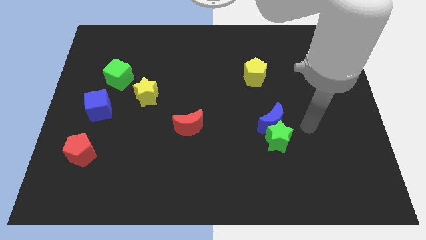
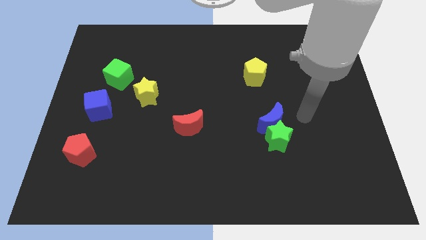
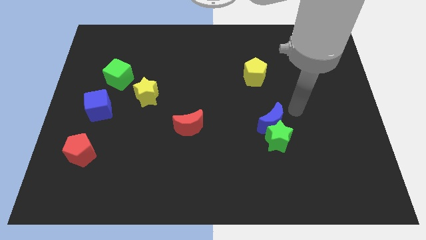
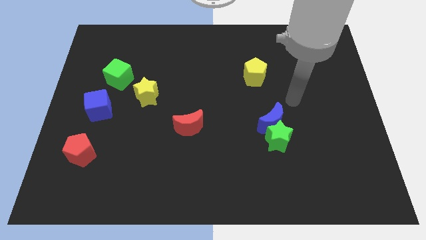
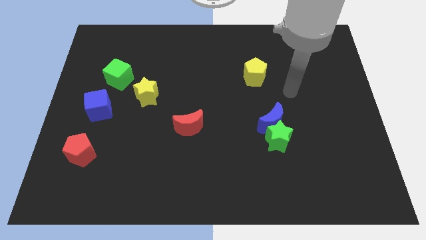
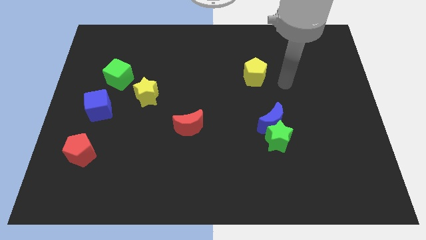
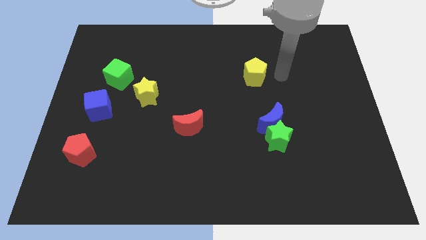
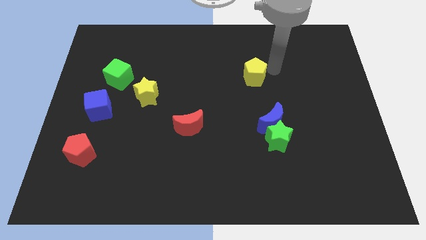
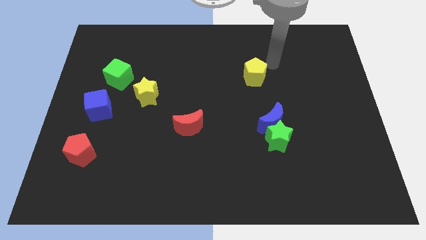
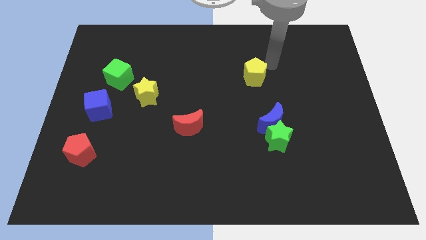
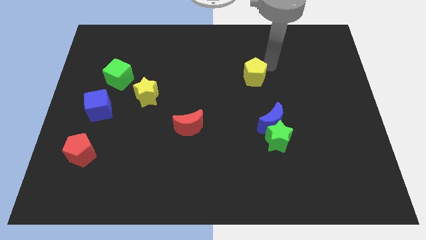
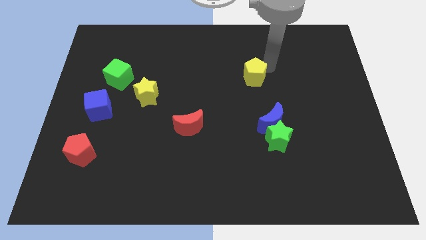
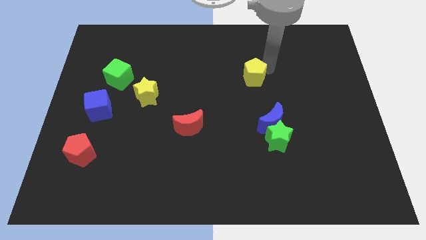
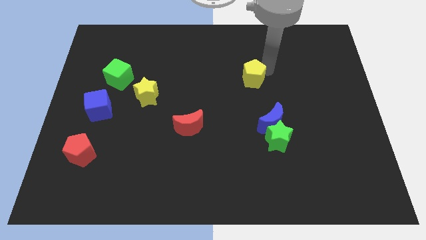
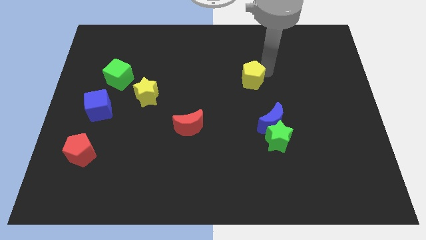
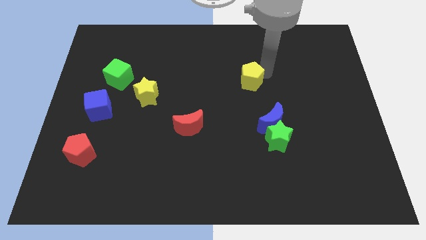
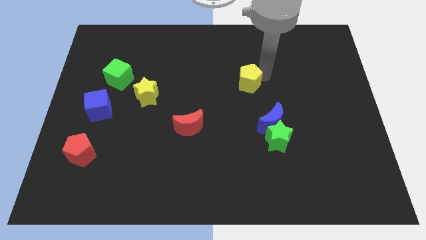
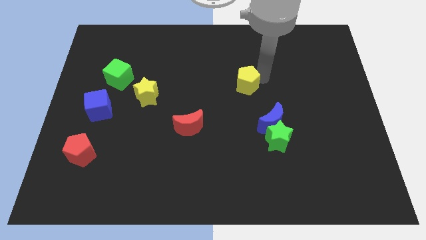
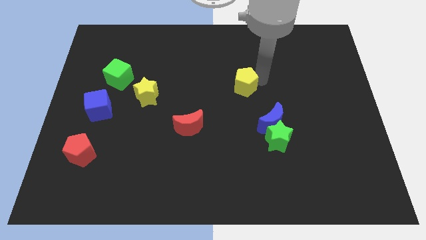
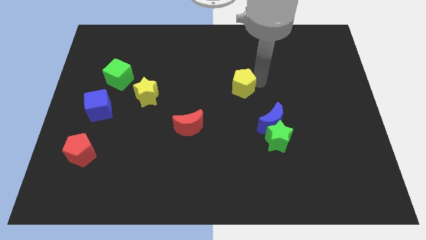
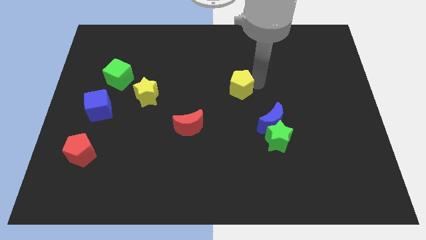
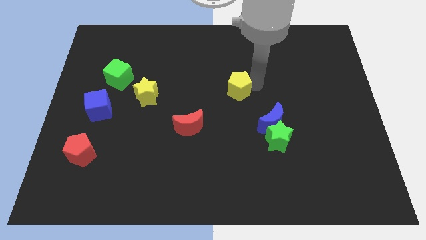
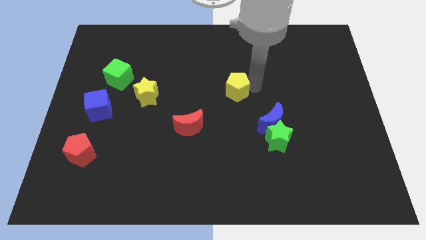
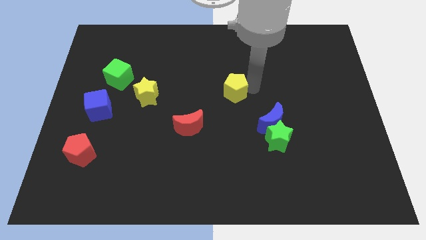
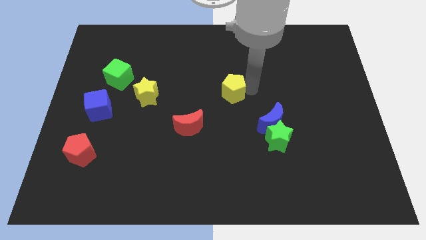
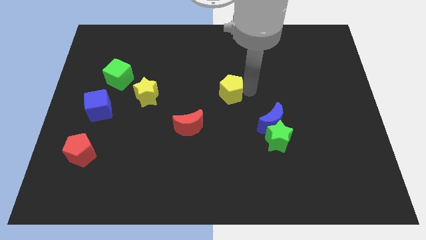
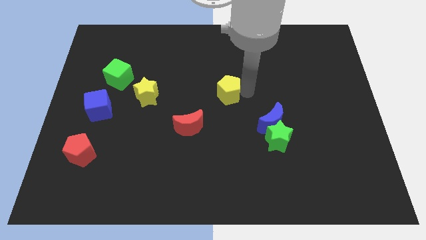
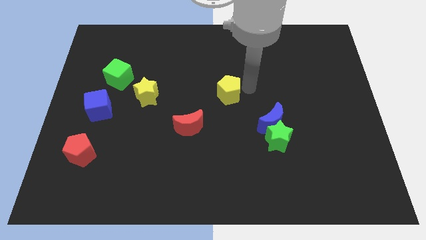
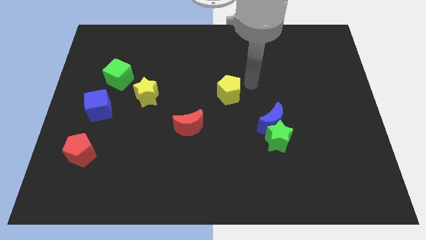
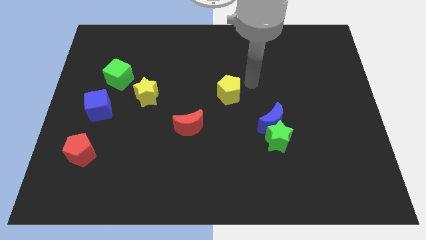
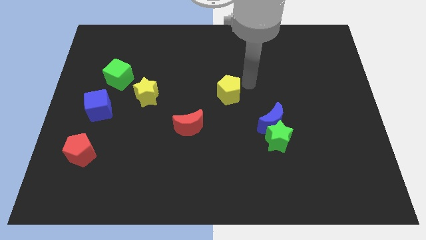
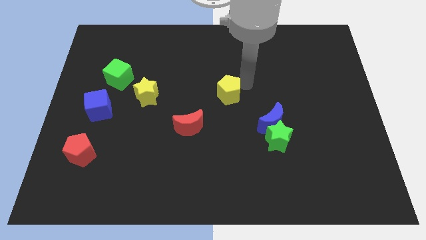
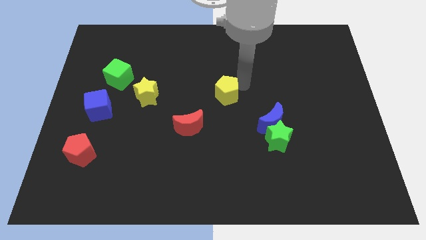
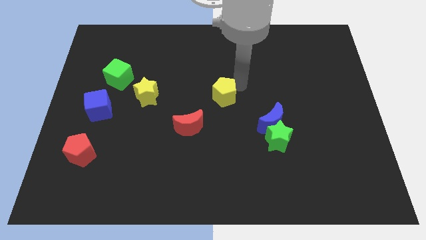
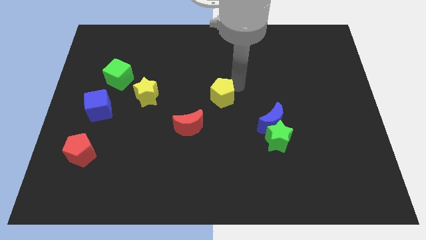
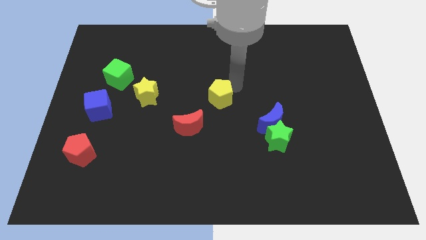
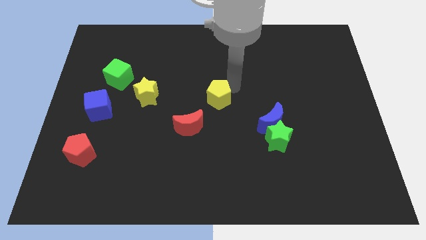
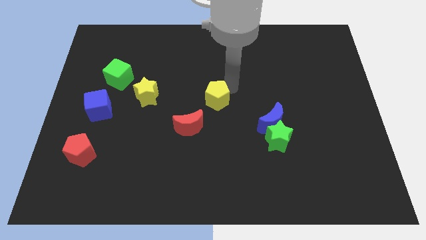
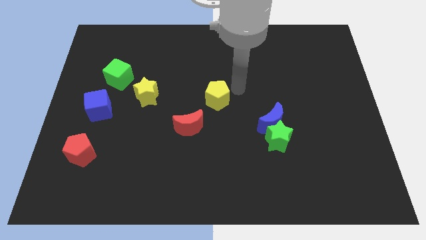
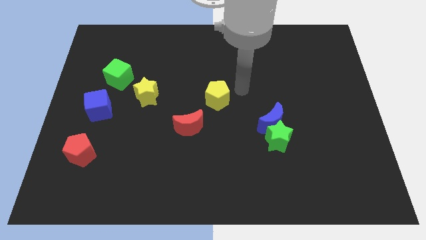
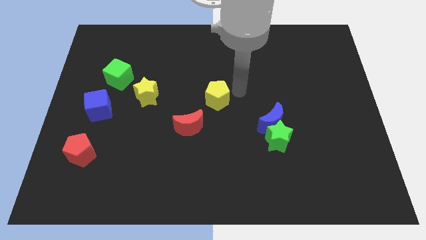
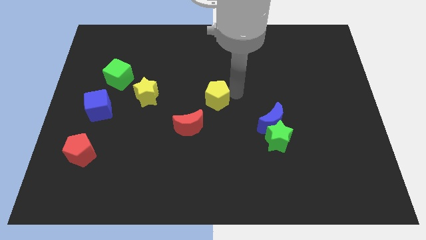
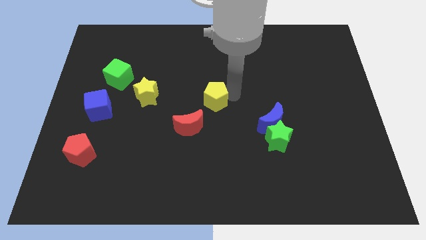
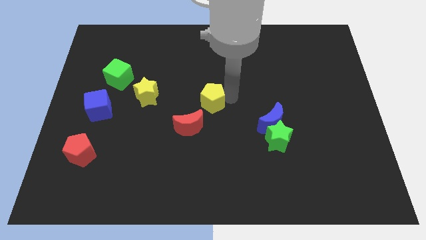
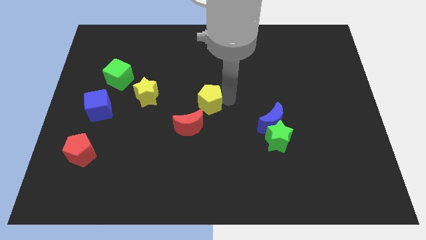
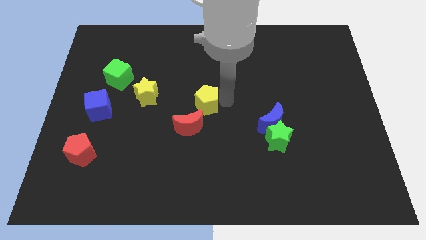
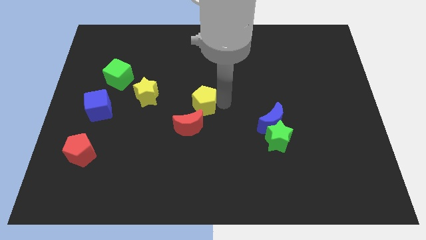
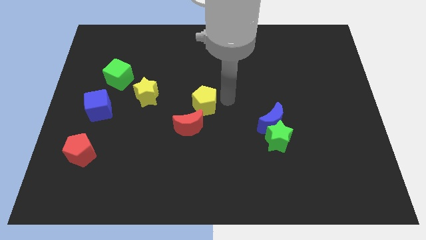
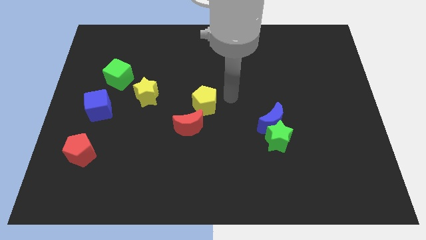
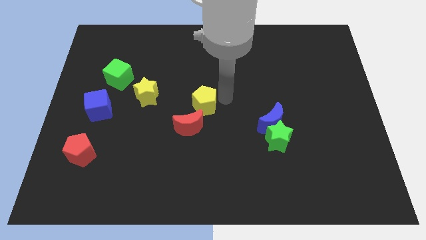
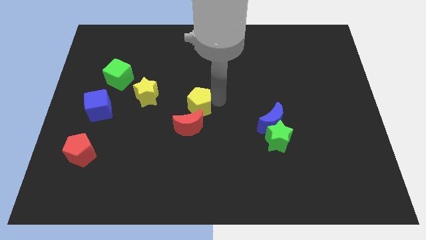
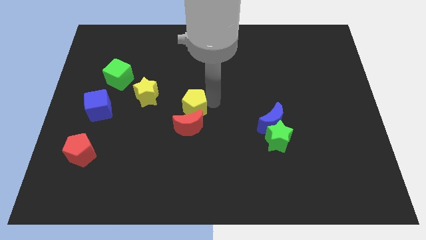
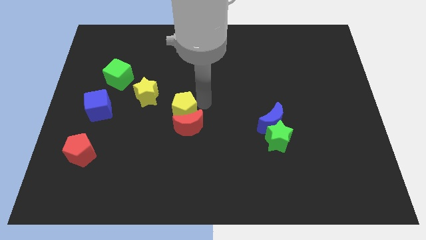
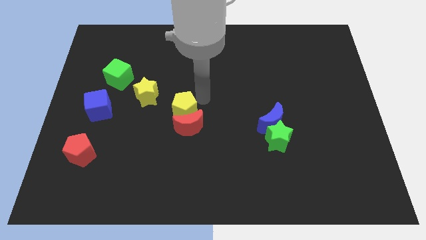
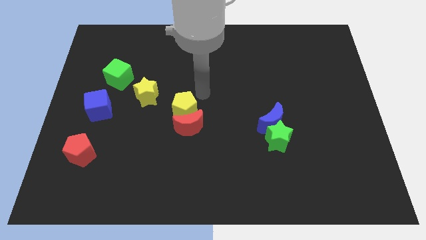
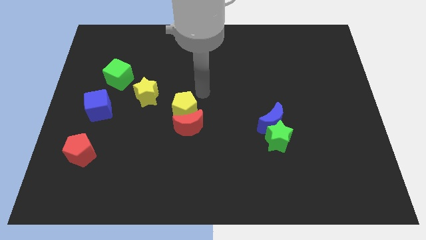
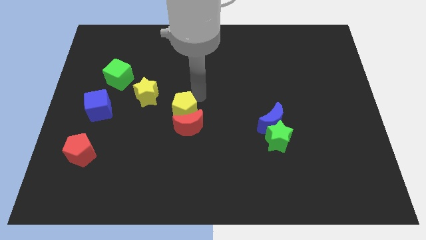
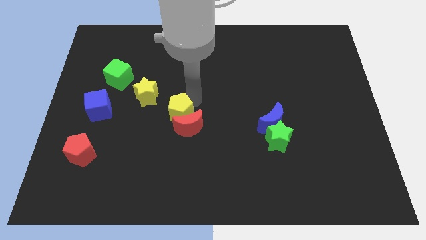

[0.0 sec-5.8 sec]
slide the yellow pentagon down and then left

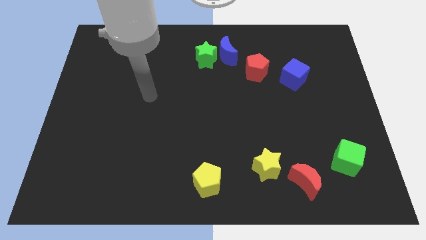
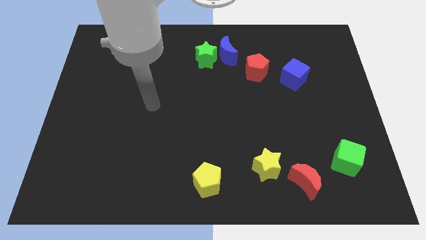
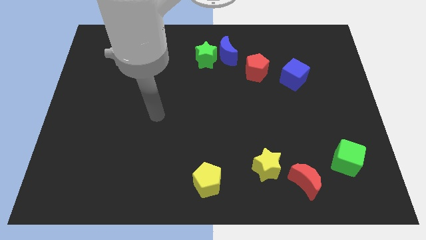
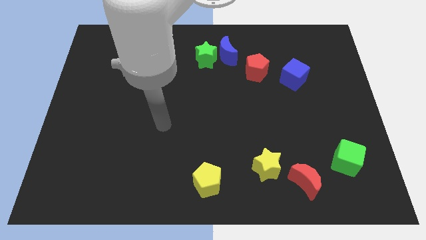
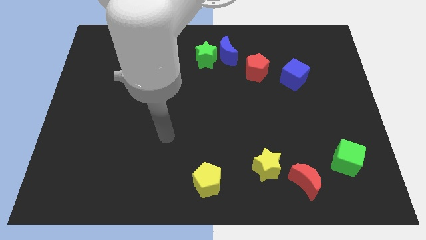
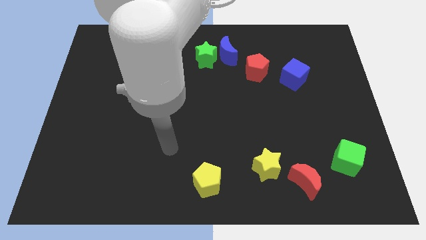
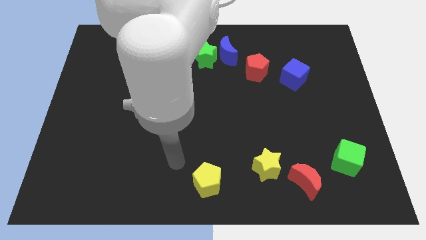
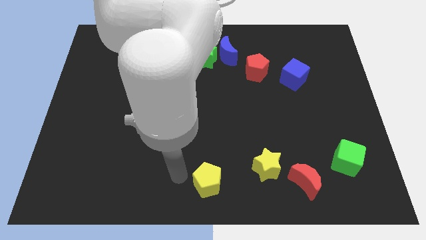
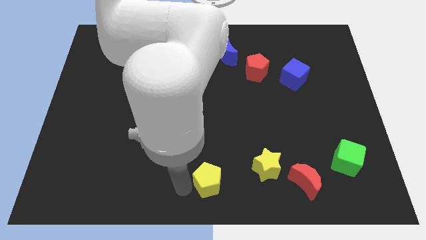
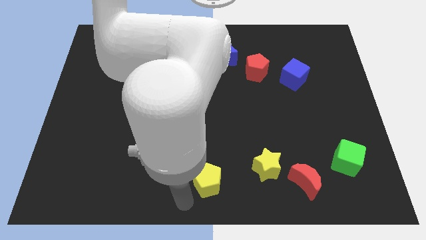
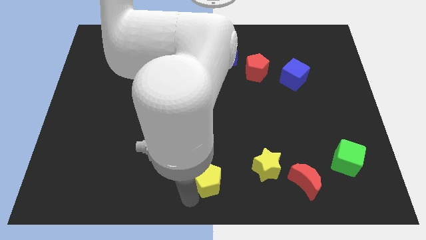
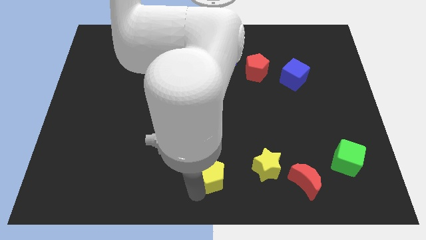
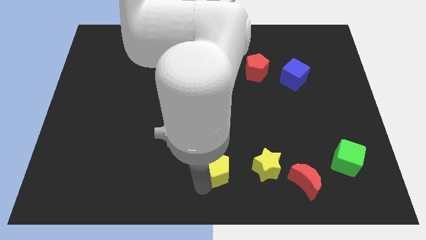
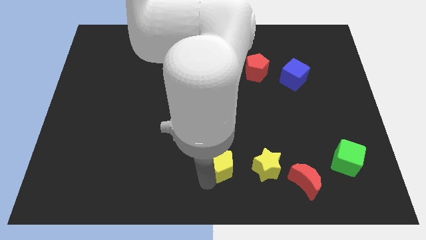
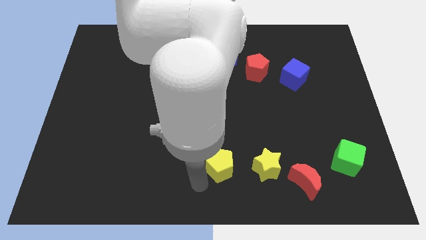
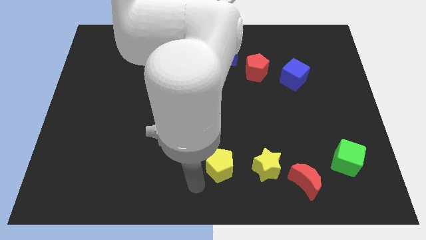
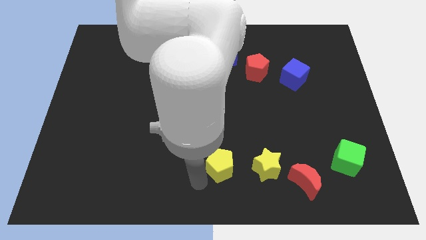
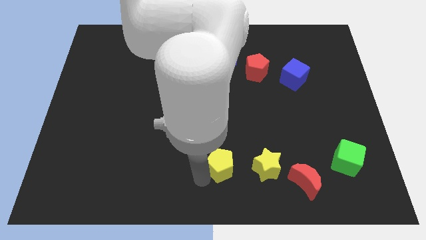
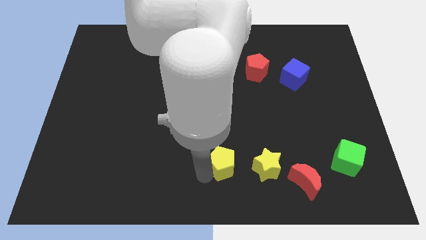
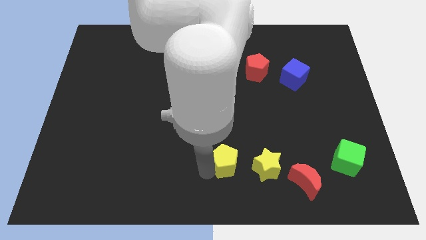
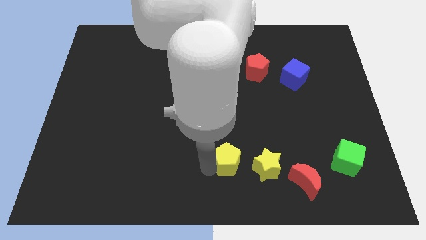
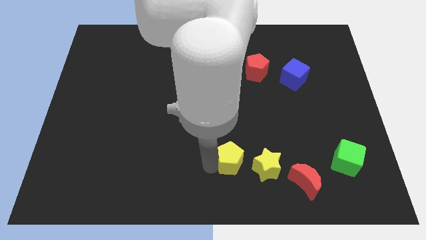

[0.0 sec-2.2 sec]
push the yellow pentagon diagonally upwards and to the right slightly

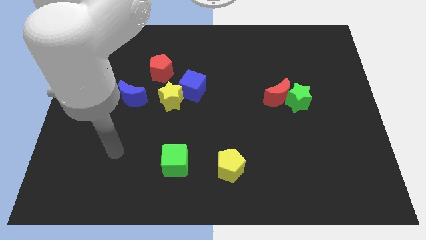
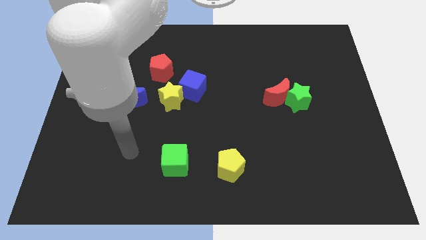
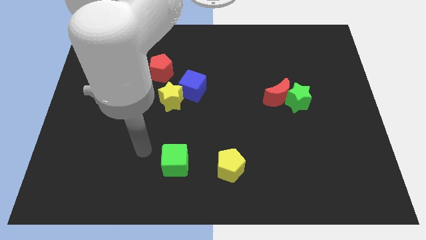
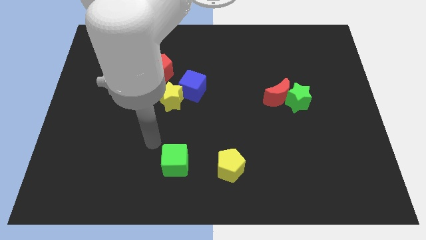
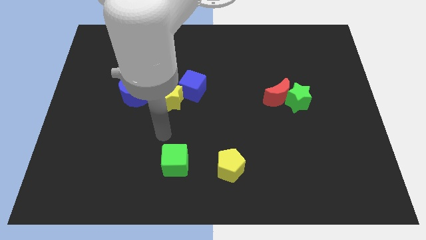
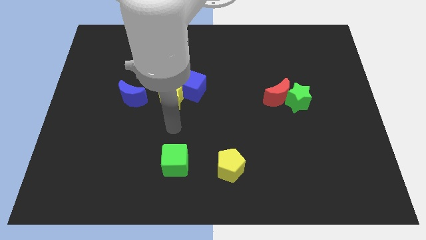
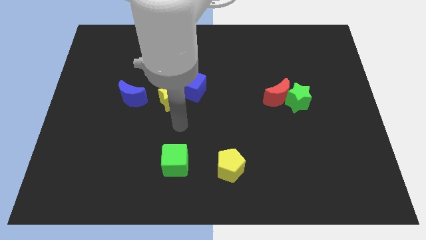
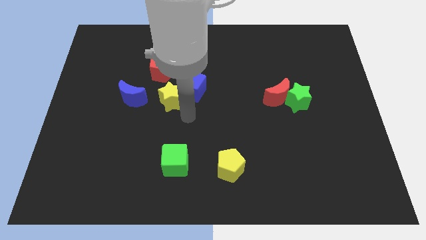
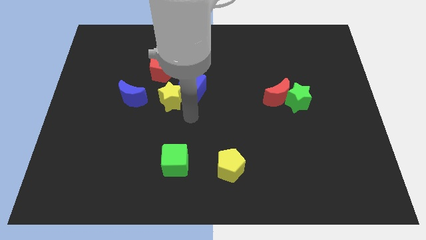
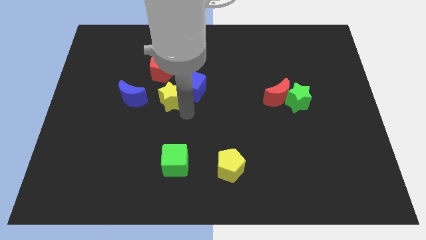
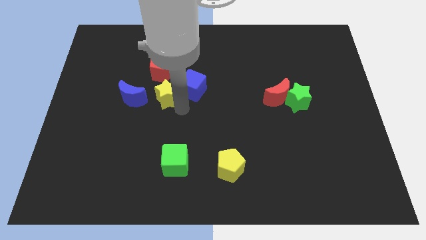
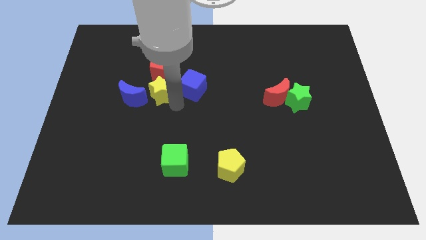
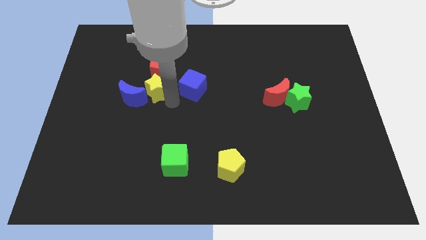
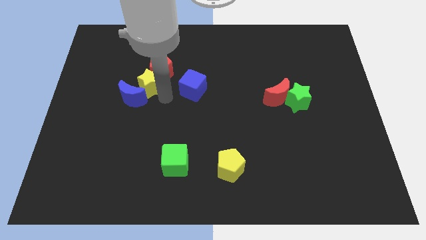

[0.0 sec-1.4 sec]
move the yellow star diagonally upwards and to the left slightly
